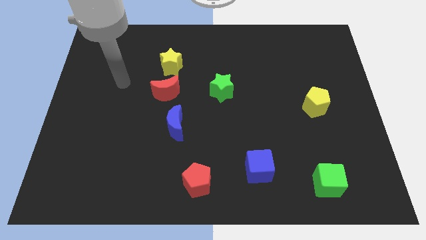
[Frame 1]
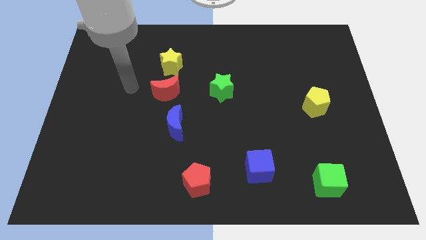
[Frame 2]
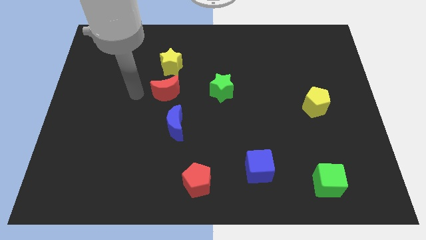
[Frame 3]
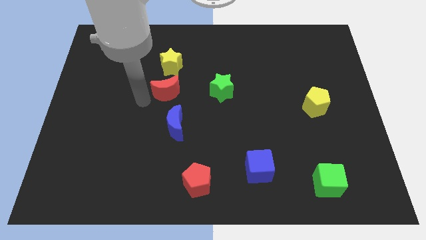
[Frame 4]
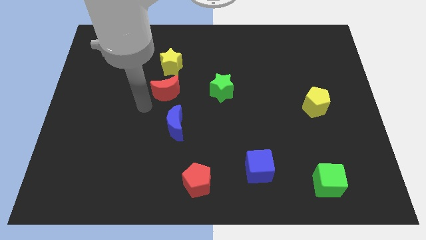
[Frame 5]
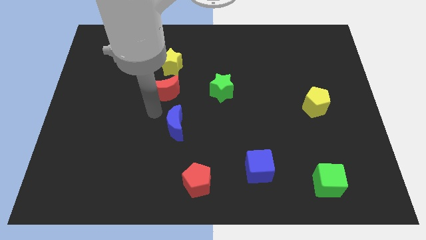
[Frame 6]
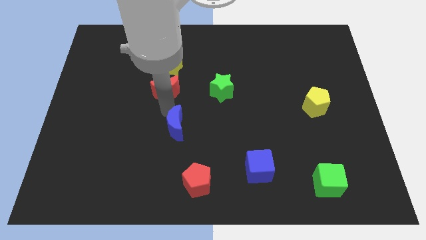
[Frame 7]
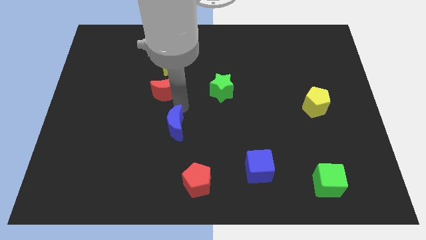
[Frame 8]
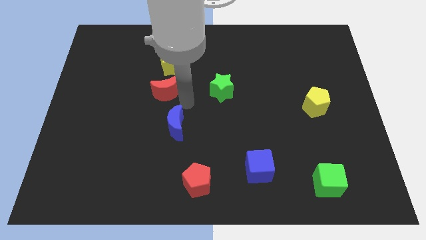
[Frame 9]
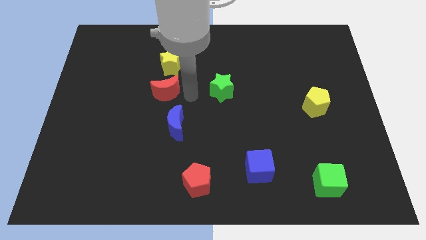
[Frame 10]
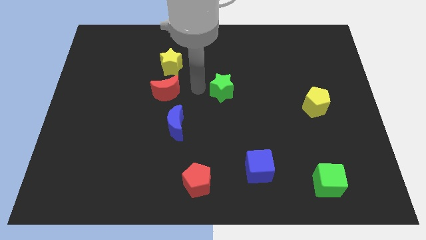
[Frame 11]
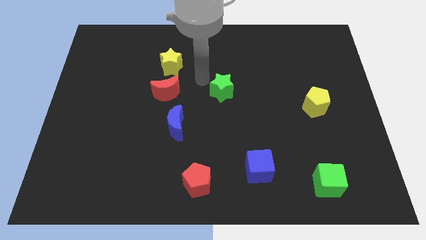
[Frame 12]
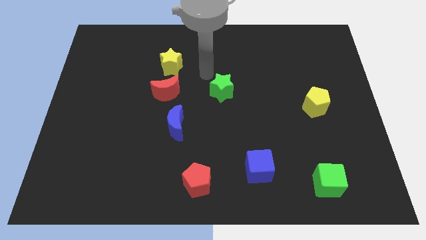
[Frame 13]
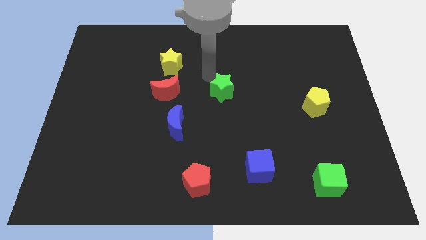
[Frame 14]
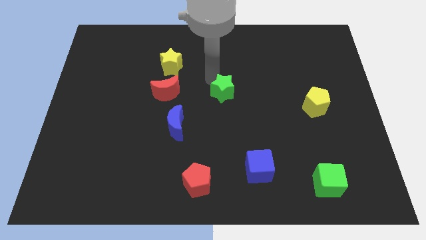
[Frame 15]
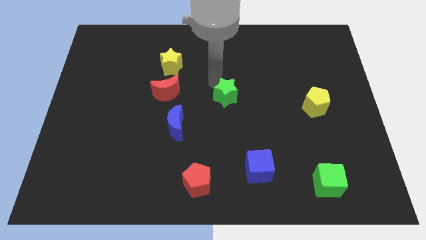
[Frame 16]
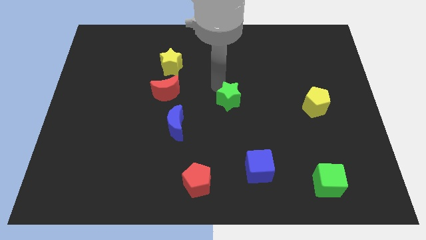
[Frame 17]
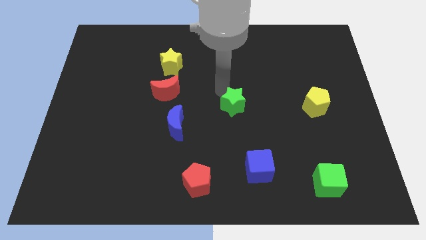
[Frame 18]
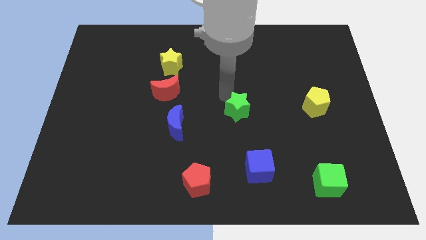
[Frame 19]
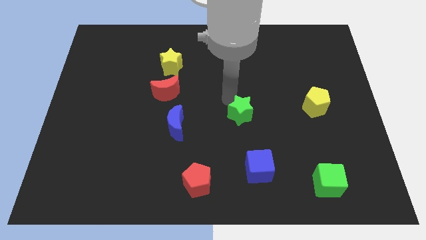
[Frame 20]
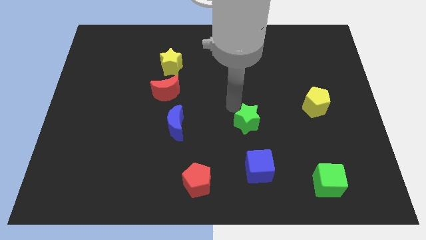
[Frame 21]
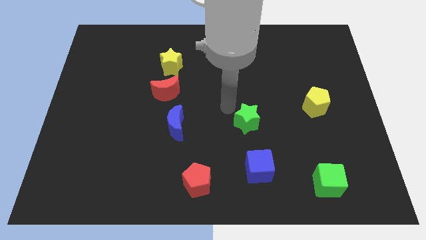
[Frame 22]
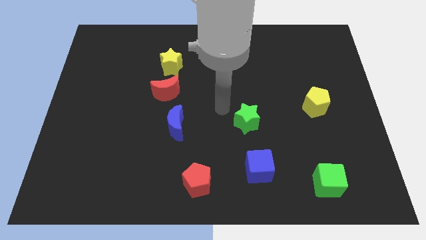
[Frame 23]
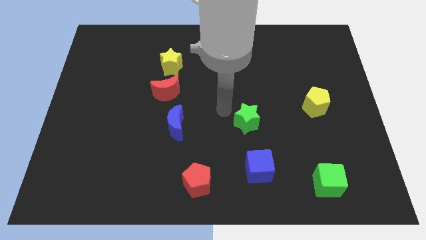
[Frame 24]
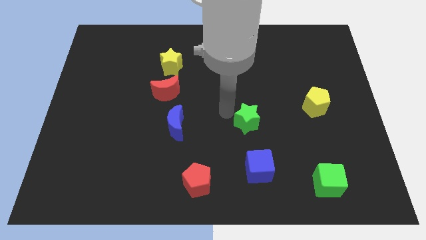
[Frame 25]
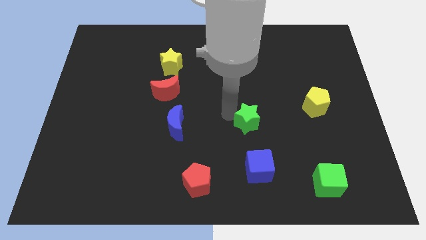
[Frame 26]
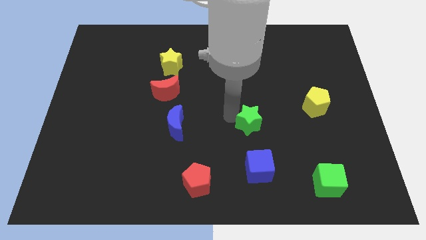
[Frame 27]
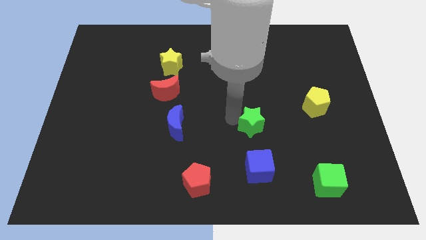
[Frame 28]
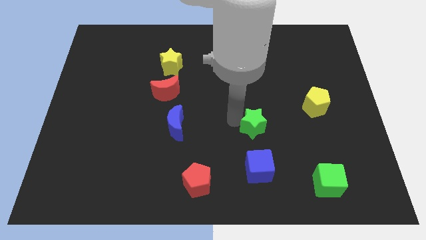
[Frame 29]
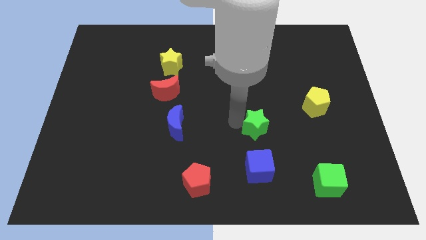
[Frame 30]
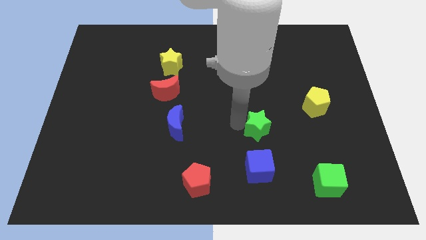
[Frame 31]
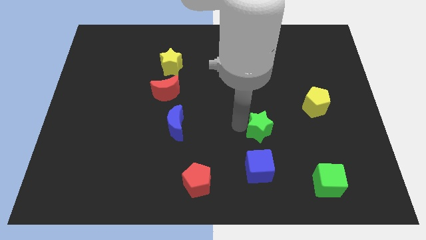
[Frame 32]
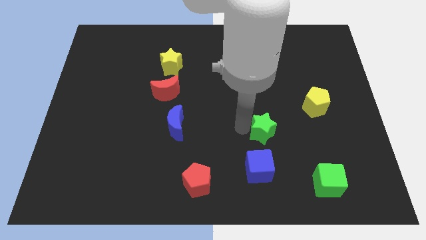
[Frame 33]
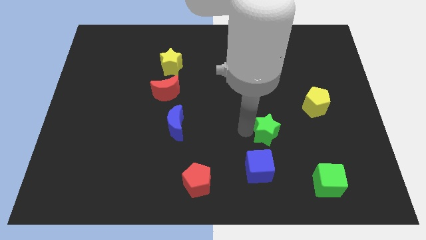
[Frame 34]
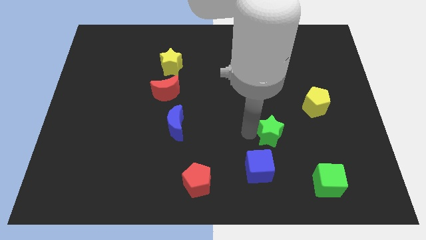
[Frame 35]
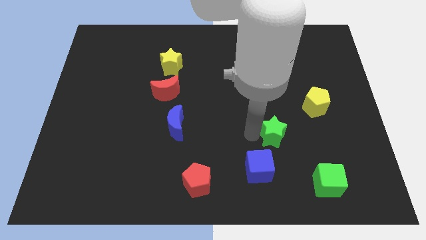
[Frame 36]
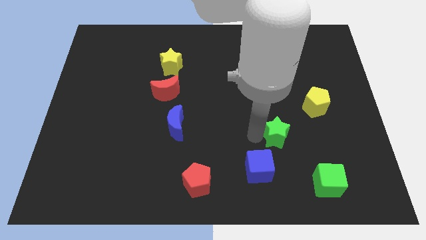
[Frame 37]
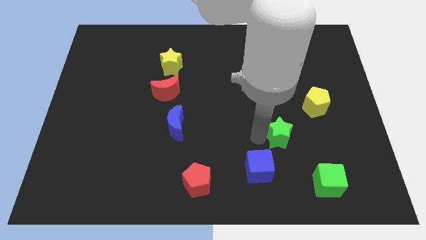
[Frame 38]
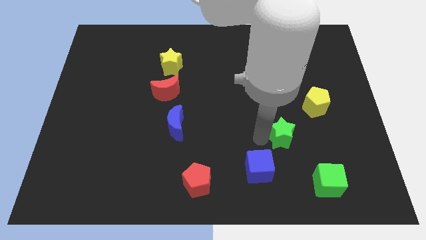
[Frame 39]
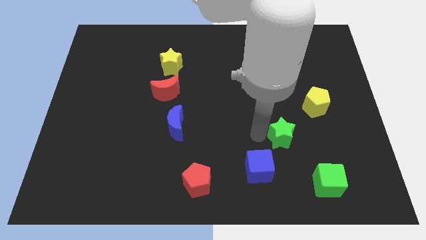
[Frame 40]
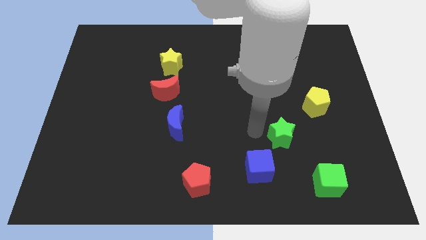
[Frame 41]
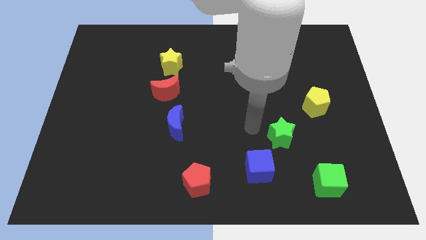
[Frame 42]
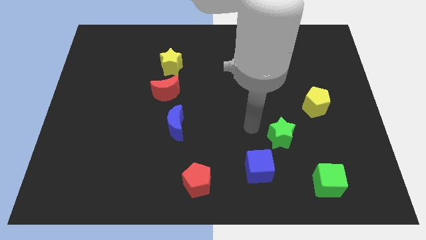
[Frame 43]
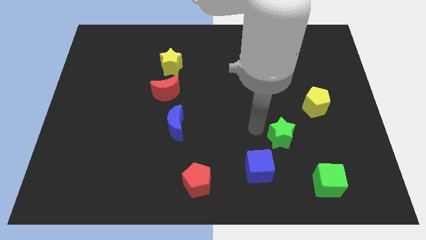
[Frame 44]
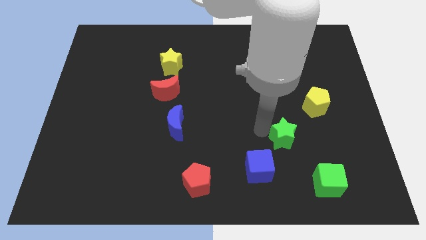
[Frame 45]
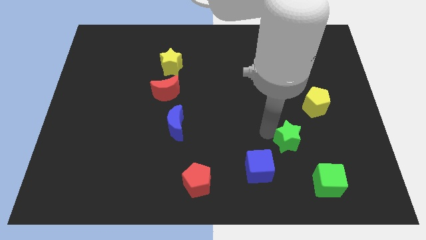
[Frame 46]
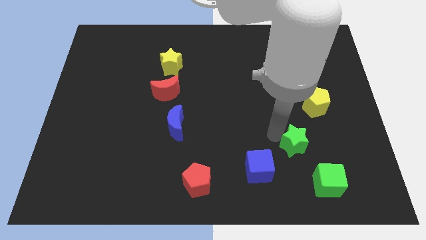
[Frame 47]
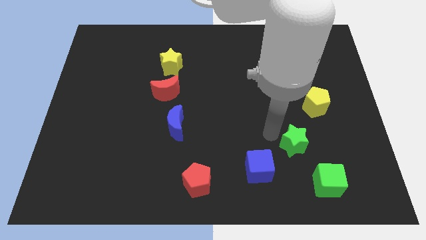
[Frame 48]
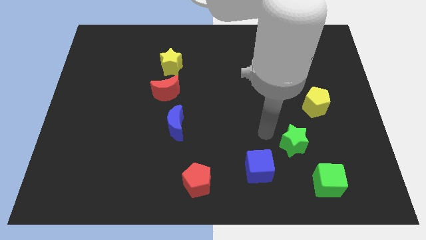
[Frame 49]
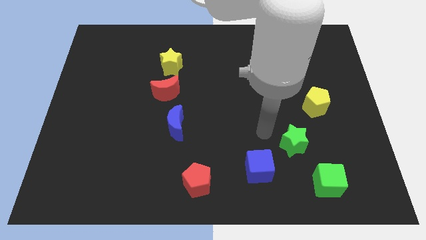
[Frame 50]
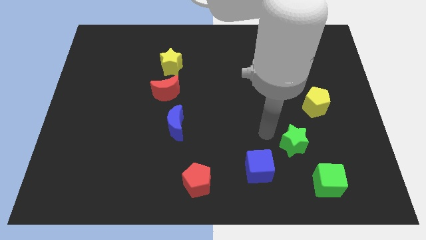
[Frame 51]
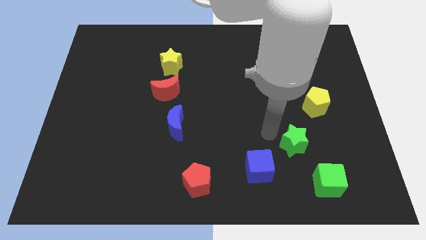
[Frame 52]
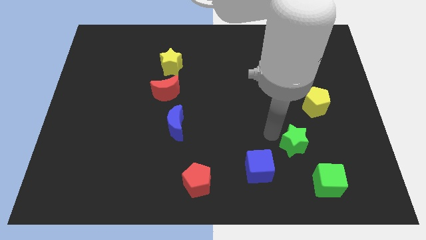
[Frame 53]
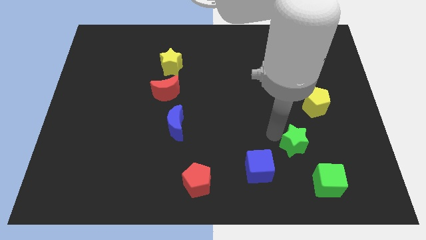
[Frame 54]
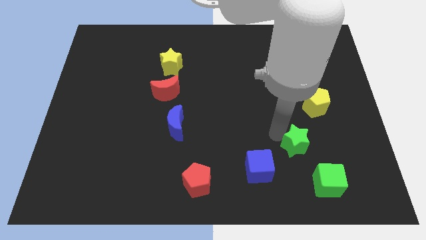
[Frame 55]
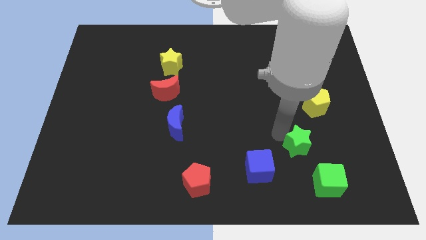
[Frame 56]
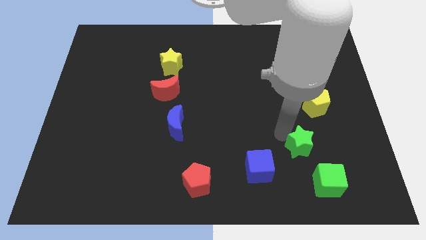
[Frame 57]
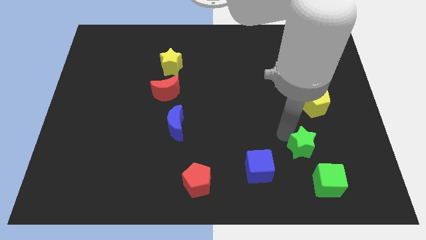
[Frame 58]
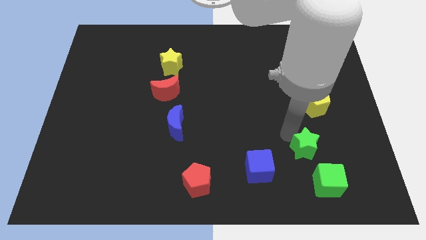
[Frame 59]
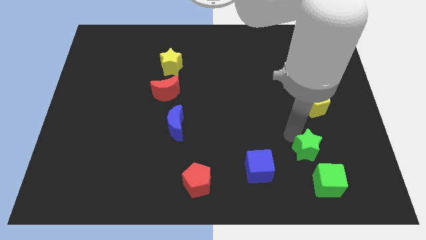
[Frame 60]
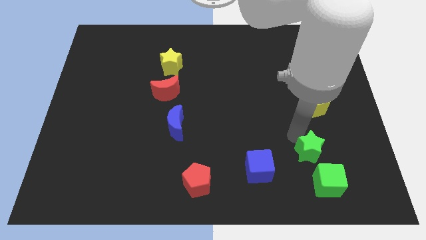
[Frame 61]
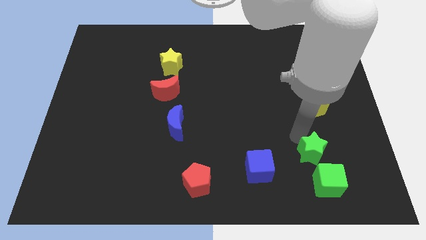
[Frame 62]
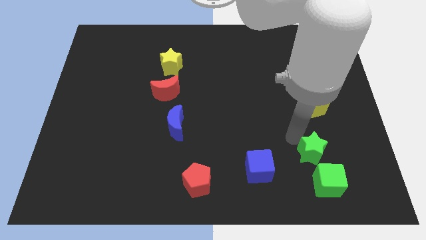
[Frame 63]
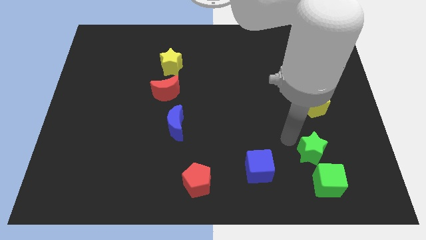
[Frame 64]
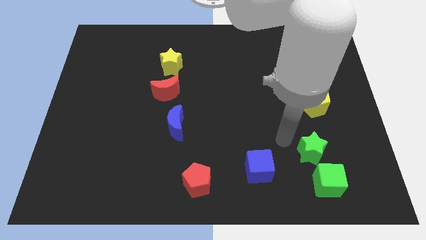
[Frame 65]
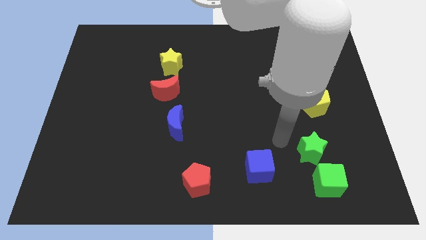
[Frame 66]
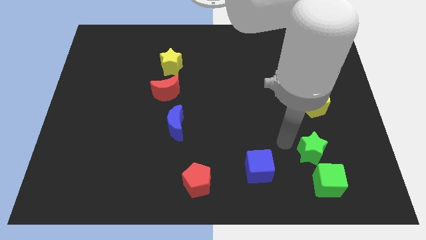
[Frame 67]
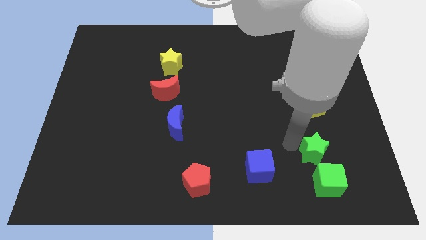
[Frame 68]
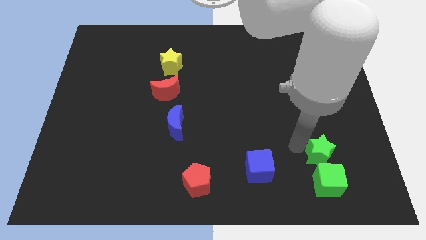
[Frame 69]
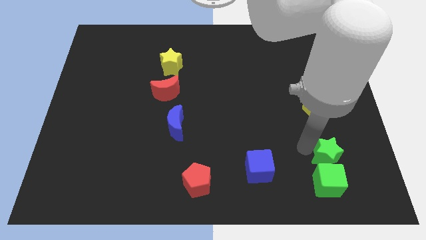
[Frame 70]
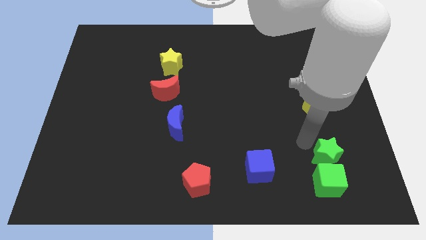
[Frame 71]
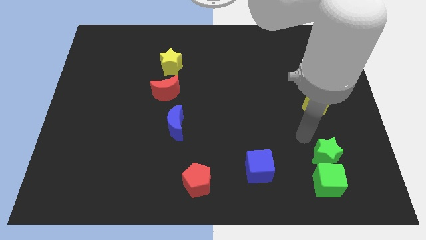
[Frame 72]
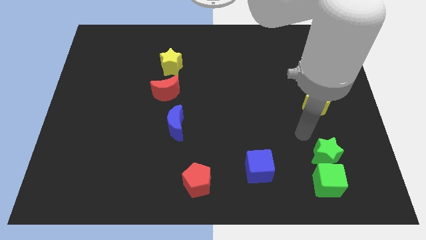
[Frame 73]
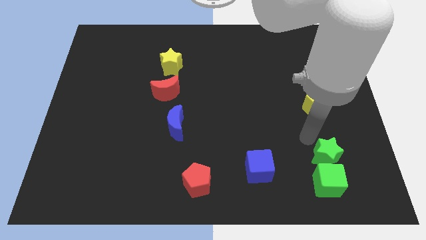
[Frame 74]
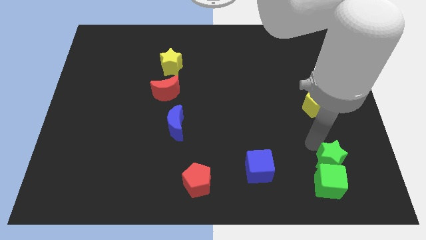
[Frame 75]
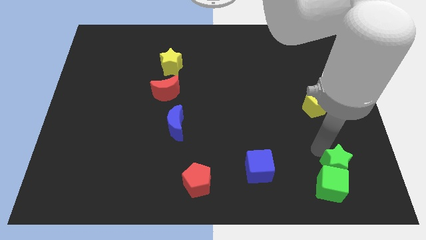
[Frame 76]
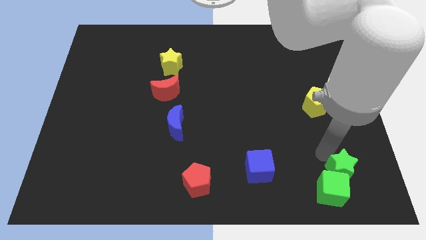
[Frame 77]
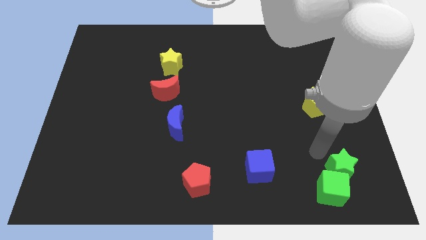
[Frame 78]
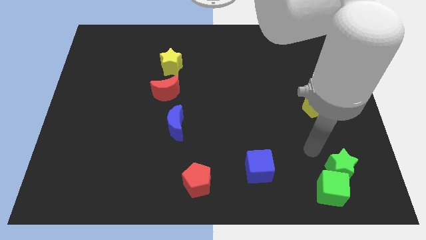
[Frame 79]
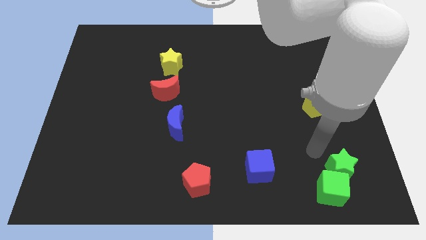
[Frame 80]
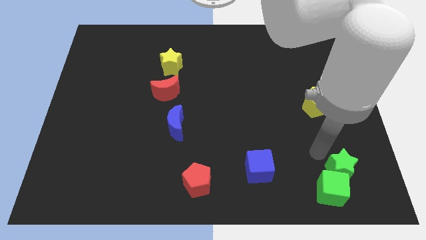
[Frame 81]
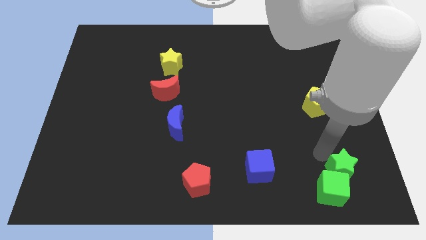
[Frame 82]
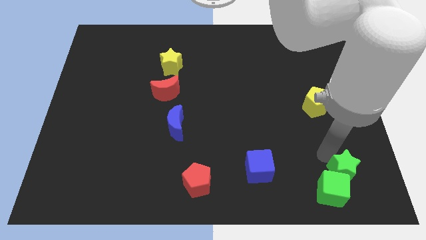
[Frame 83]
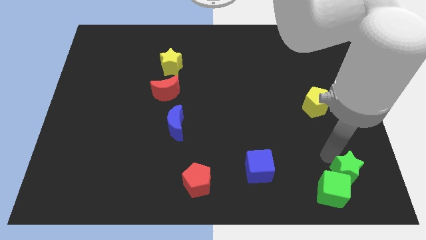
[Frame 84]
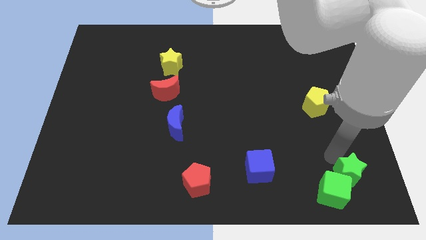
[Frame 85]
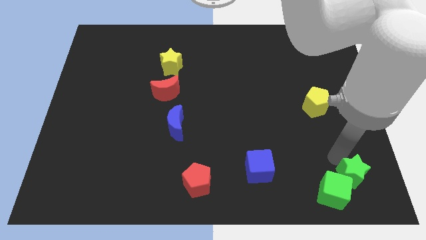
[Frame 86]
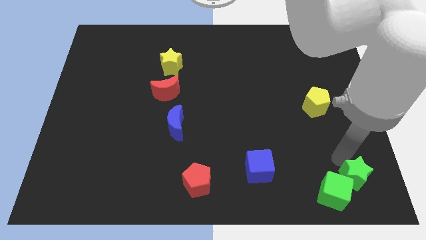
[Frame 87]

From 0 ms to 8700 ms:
move the green star to the bottom right
